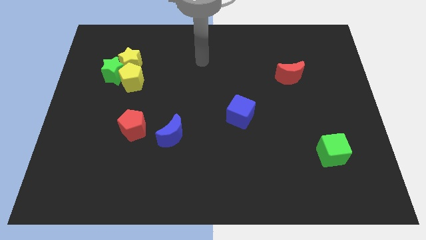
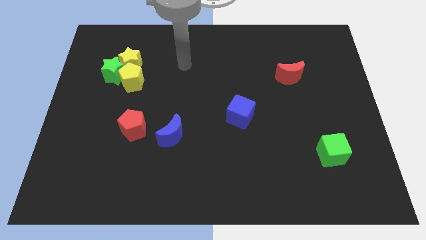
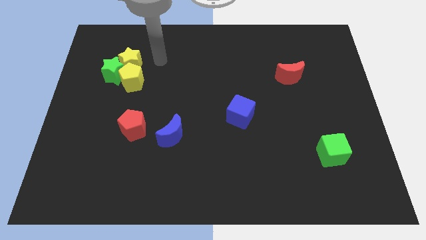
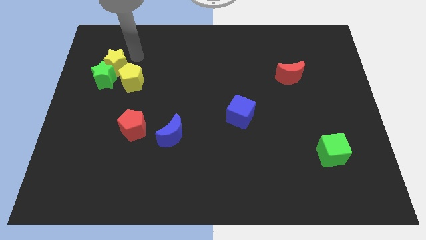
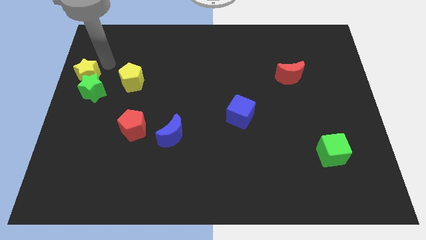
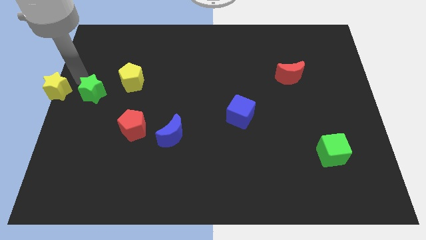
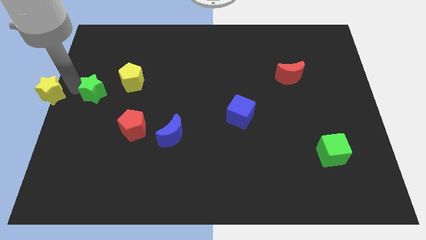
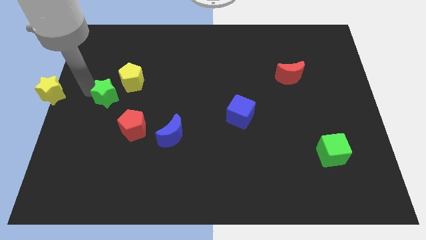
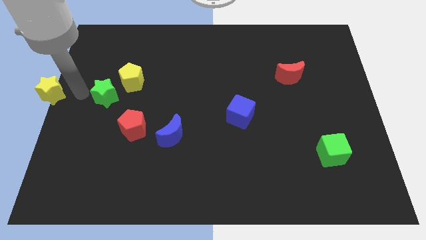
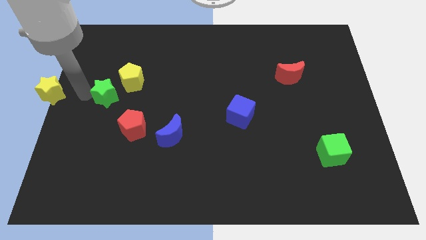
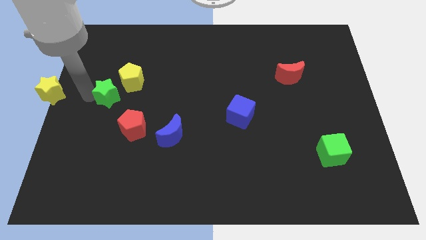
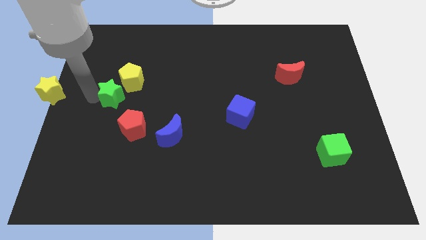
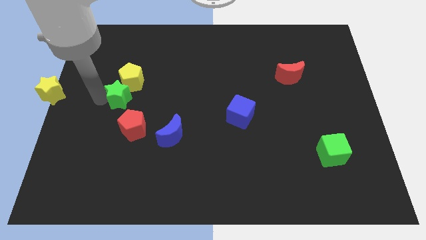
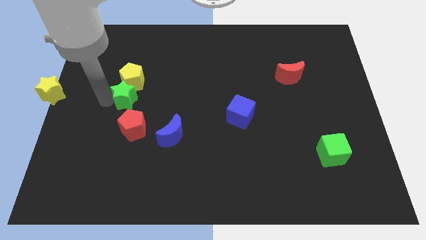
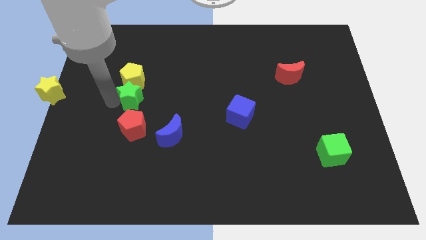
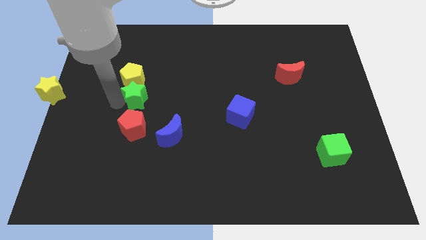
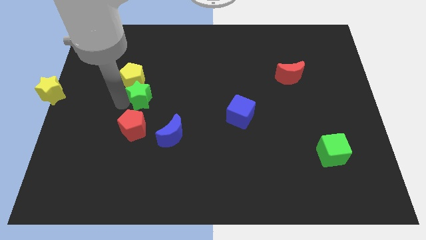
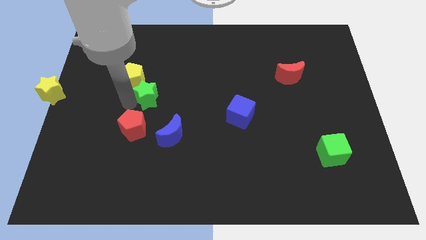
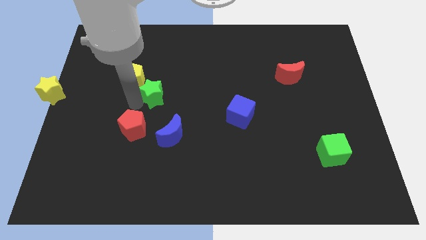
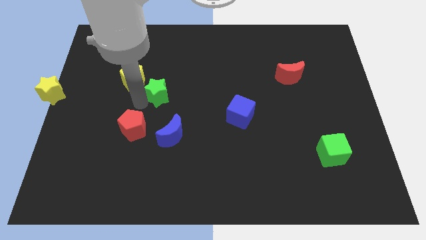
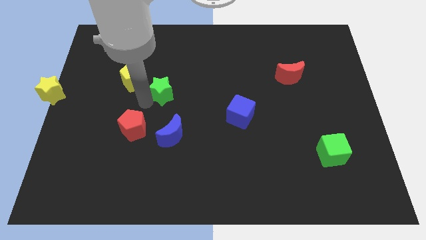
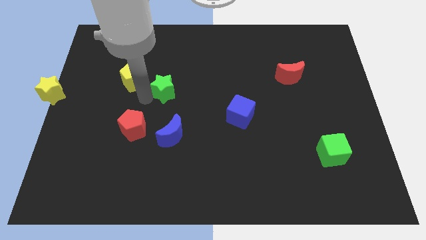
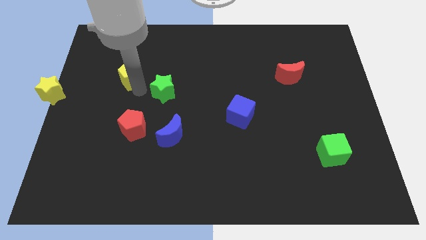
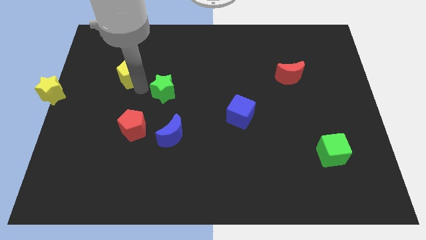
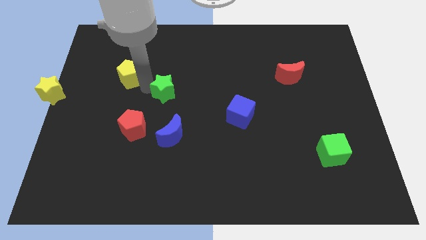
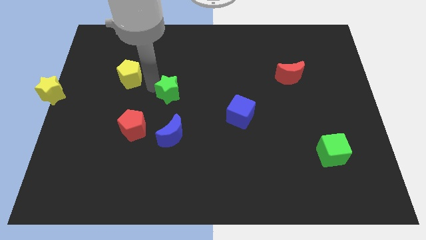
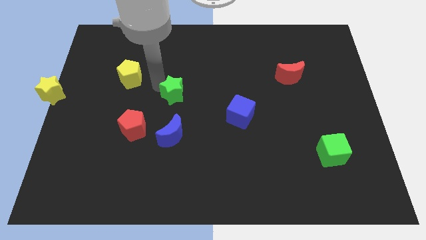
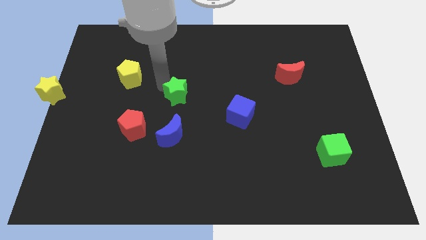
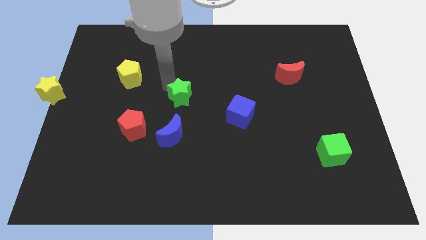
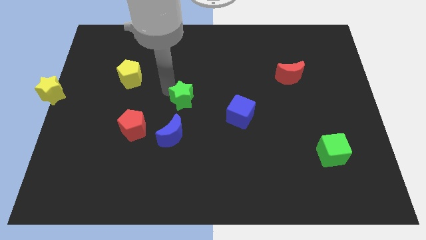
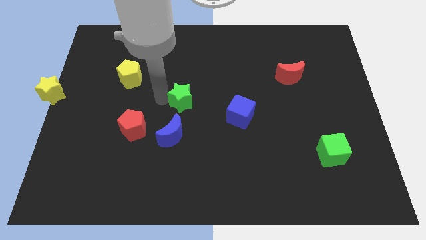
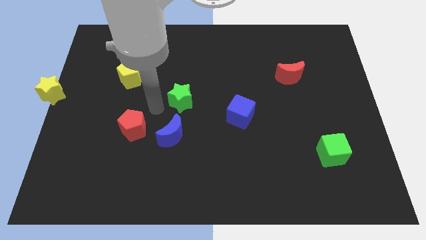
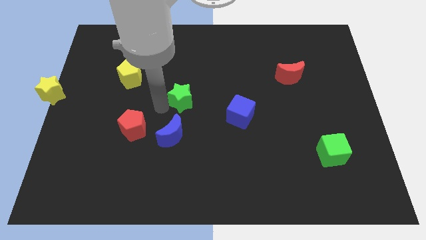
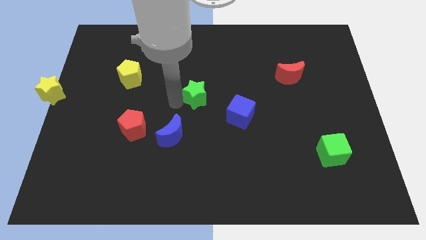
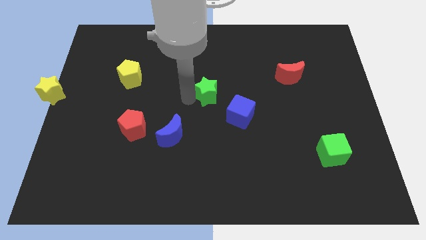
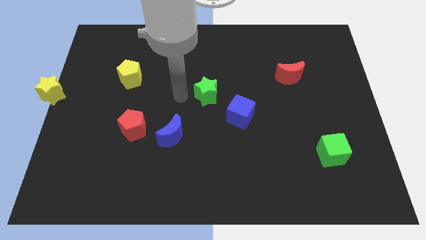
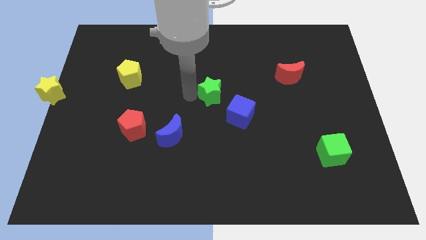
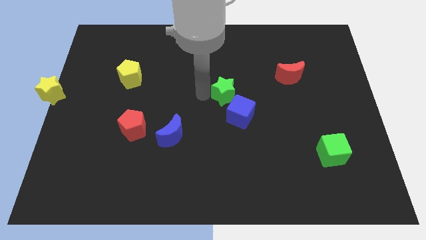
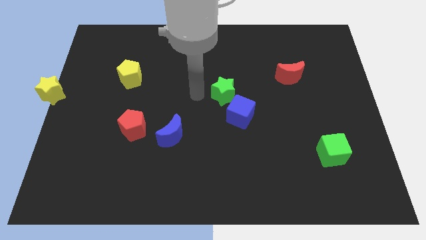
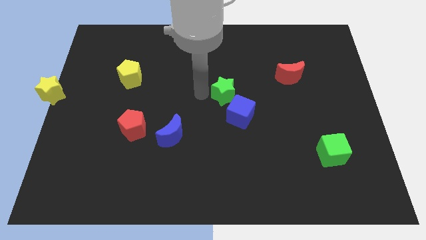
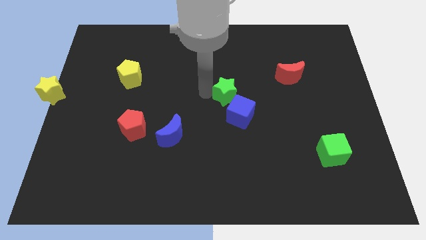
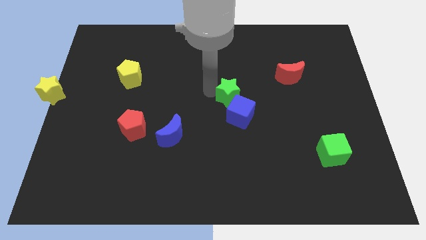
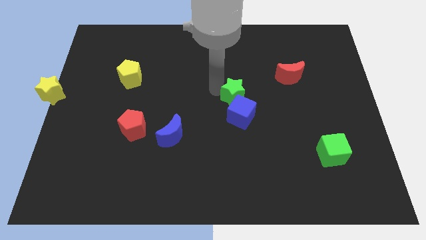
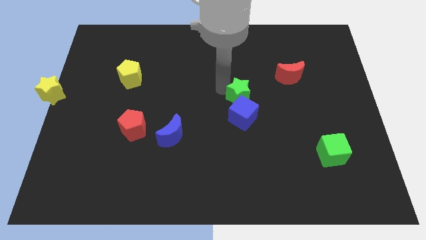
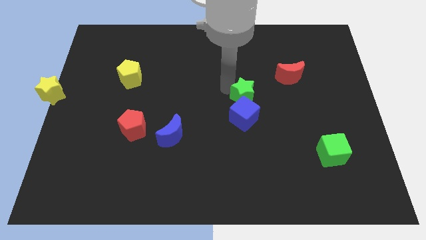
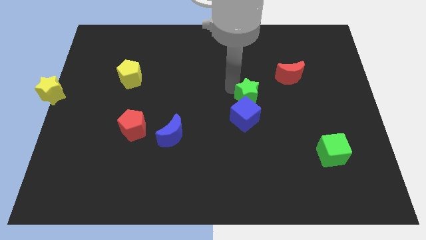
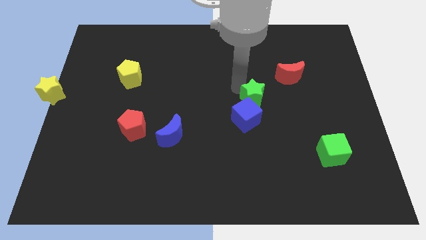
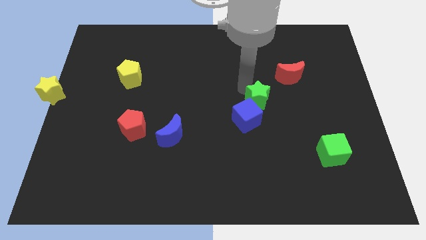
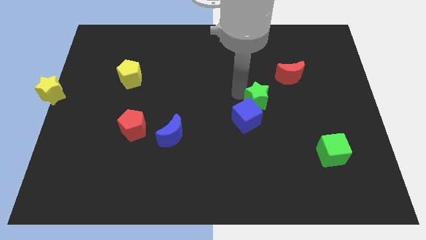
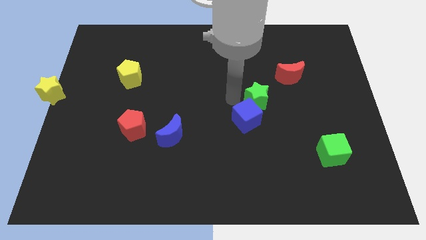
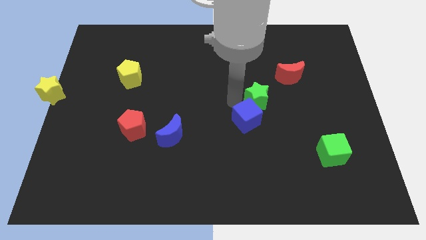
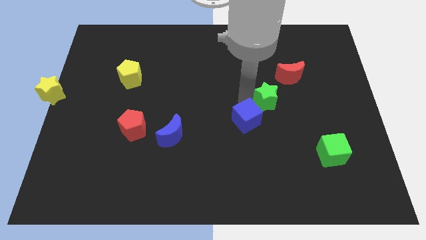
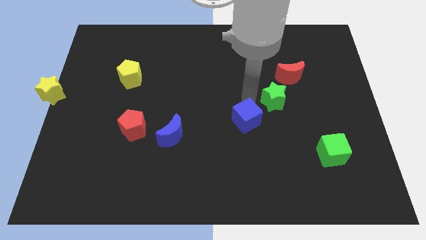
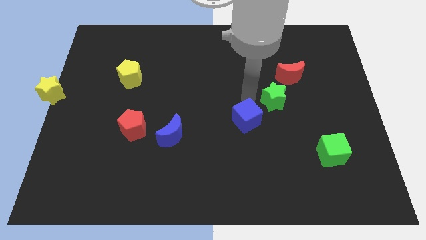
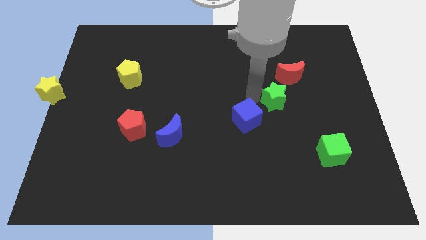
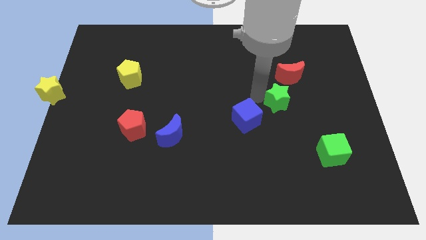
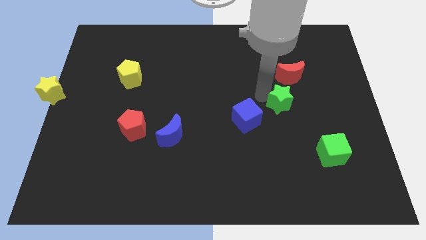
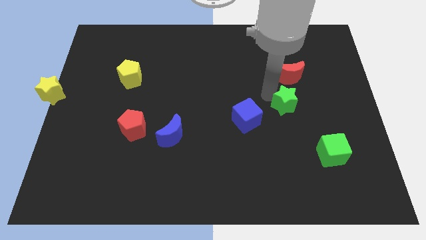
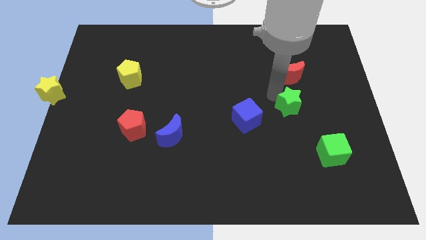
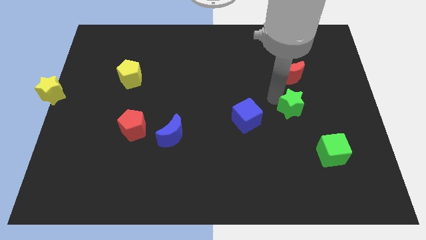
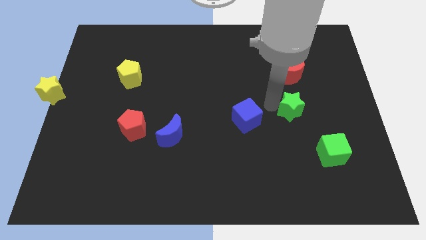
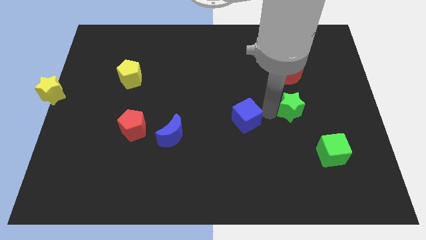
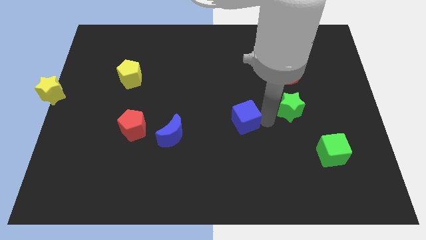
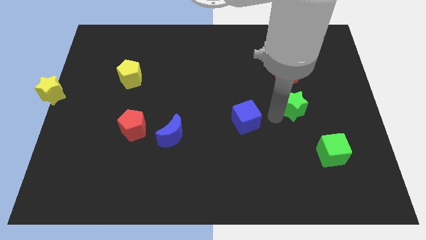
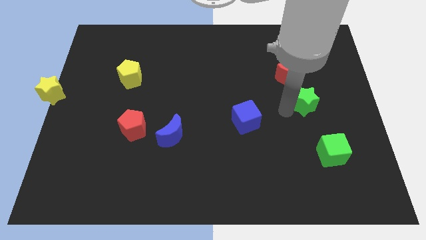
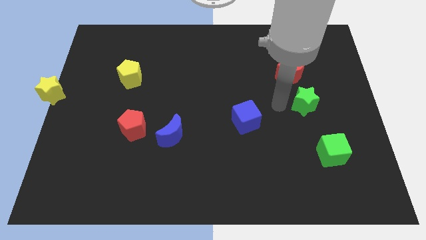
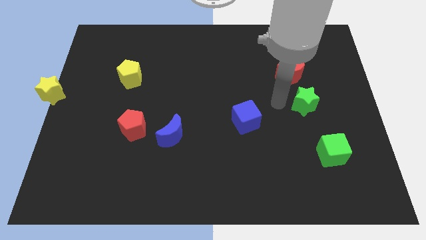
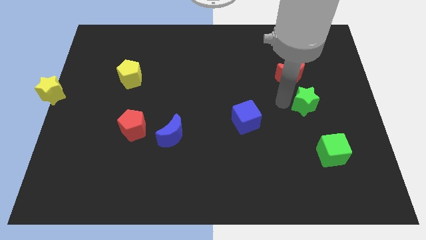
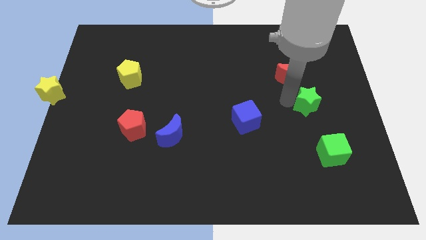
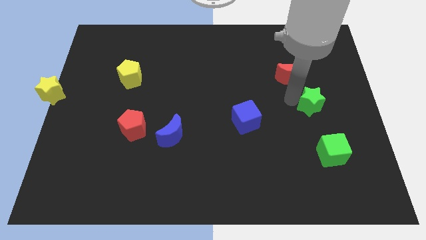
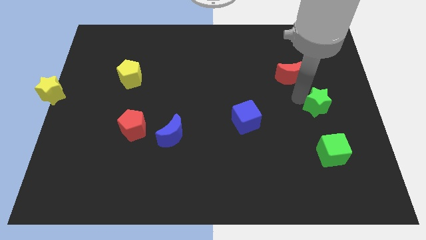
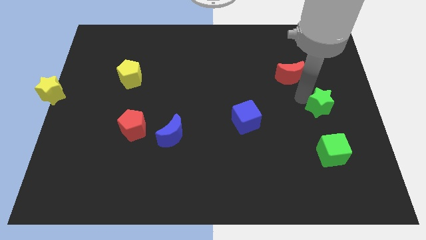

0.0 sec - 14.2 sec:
put the green star to the center right
